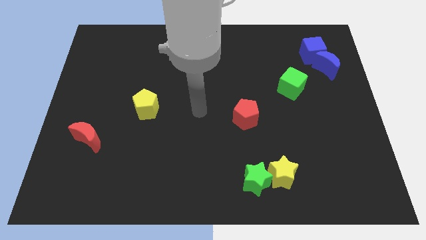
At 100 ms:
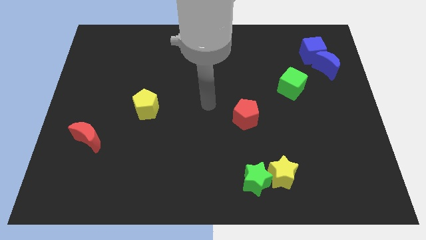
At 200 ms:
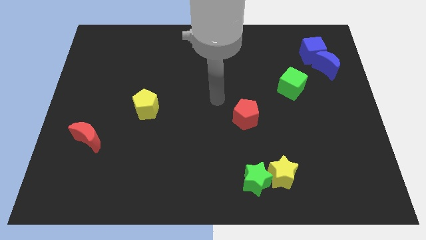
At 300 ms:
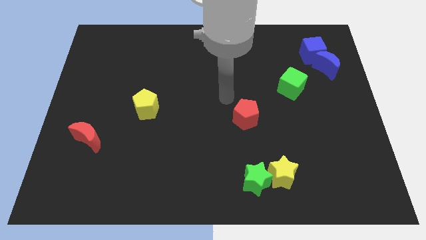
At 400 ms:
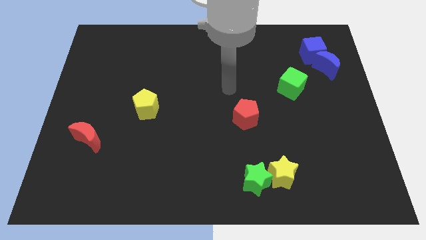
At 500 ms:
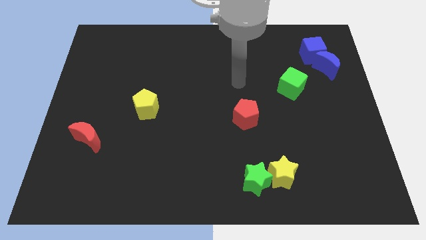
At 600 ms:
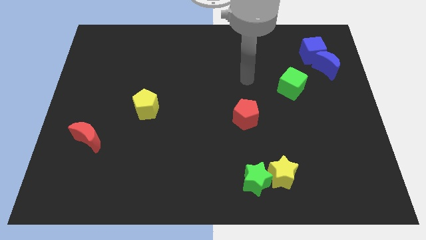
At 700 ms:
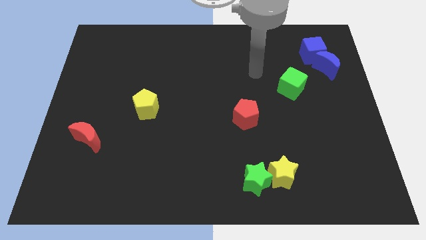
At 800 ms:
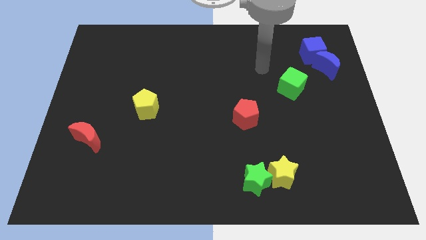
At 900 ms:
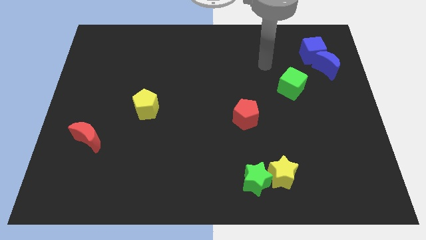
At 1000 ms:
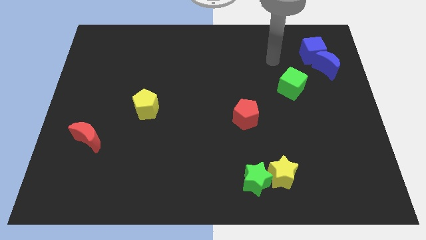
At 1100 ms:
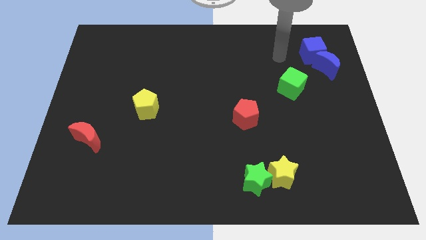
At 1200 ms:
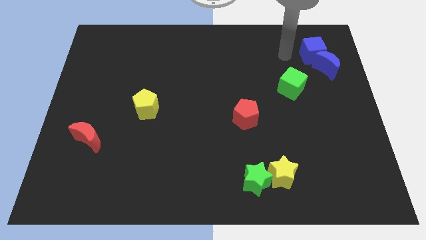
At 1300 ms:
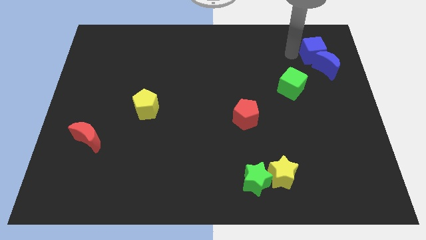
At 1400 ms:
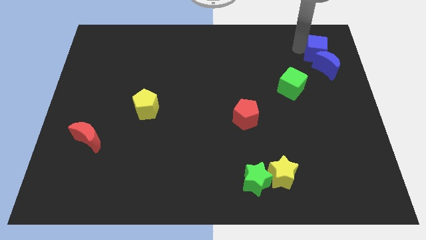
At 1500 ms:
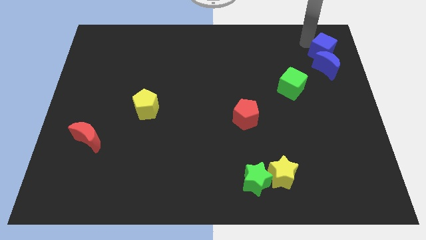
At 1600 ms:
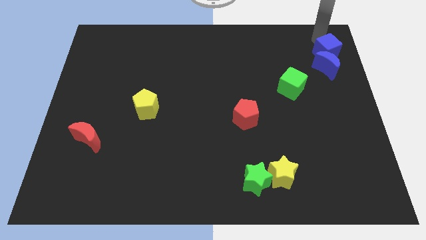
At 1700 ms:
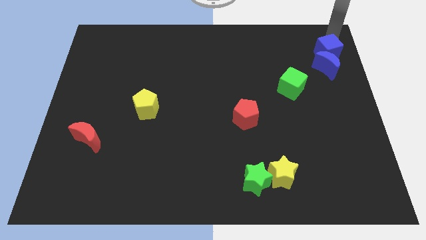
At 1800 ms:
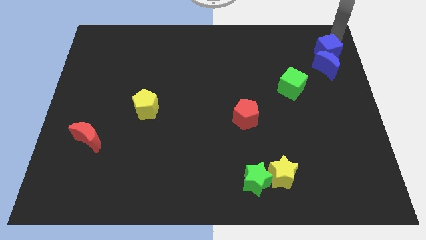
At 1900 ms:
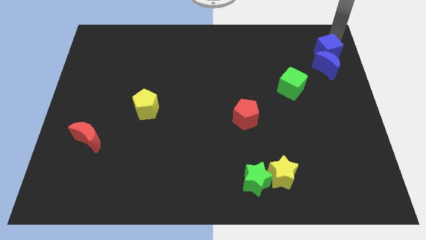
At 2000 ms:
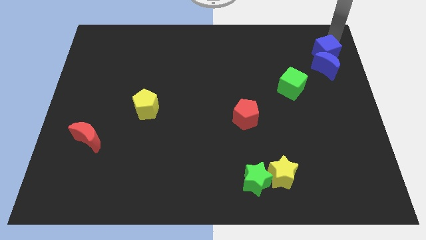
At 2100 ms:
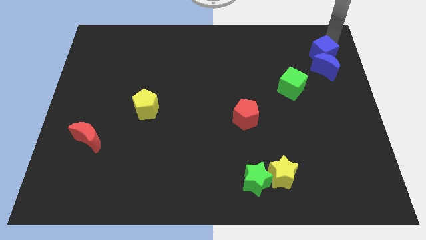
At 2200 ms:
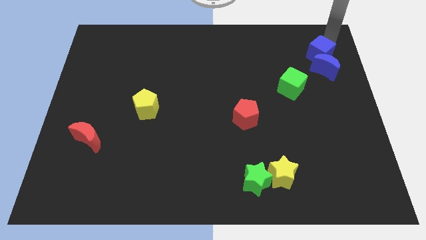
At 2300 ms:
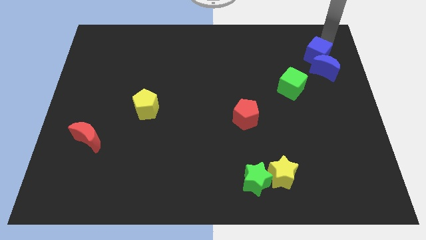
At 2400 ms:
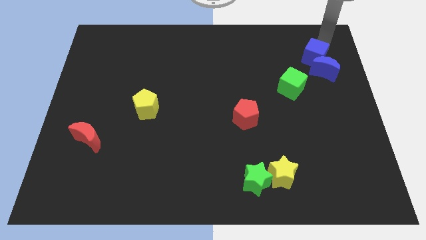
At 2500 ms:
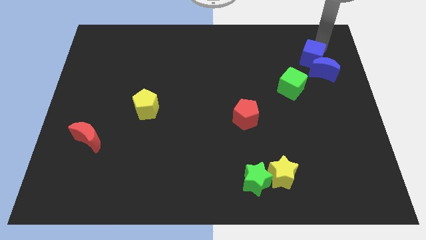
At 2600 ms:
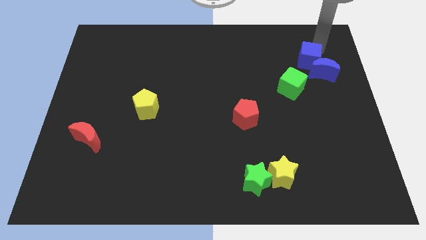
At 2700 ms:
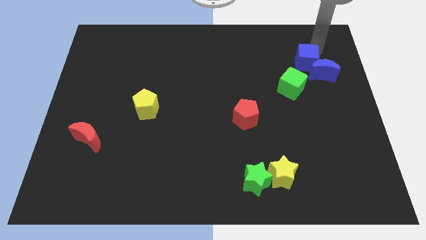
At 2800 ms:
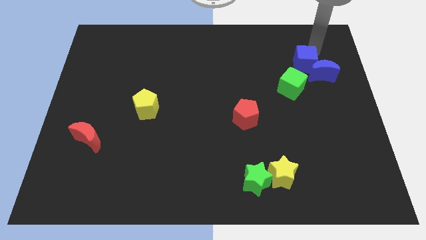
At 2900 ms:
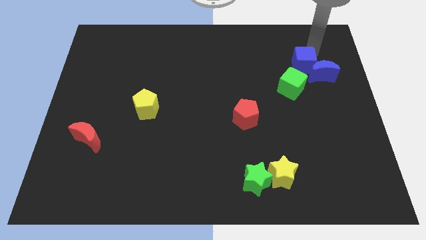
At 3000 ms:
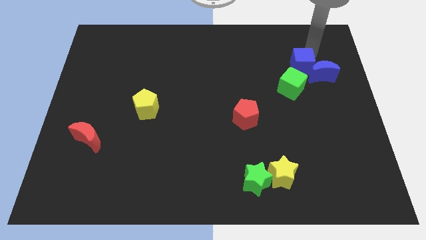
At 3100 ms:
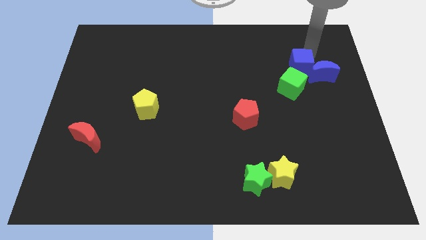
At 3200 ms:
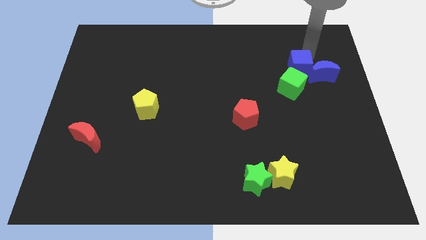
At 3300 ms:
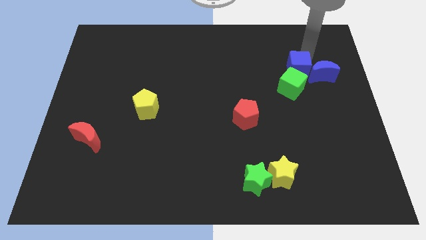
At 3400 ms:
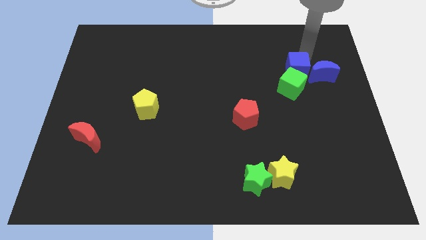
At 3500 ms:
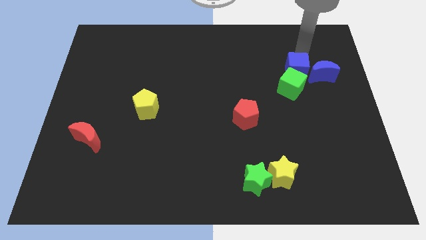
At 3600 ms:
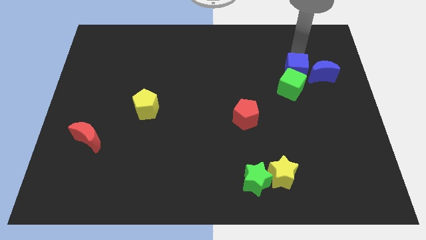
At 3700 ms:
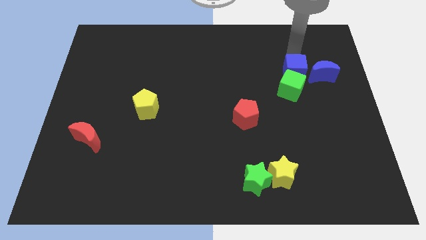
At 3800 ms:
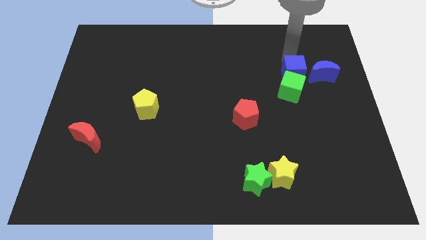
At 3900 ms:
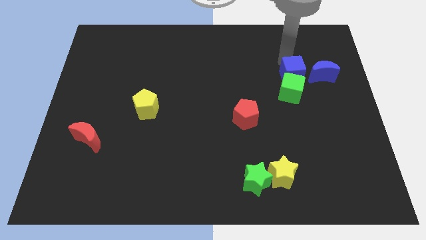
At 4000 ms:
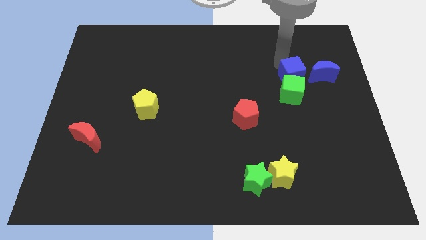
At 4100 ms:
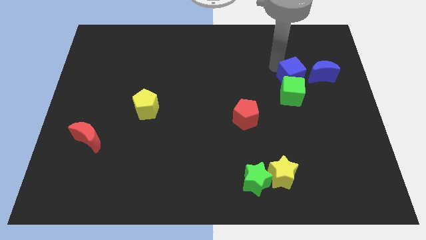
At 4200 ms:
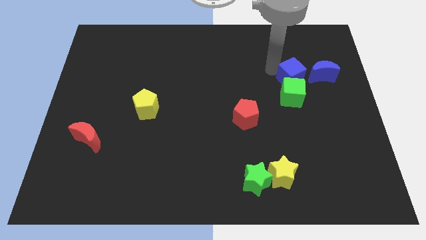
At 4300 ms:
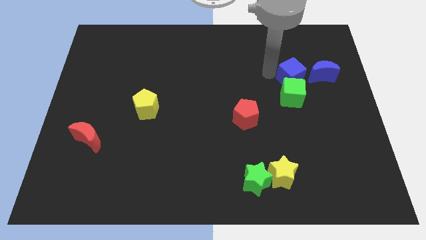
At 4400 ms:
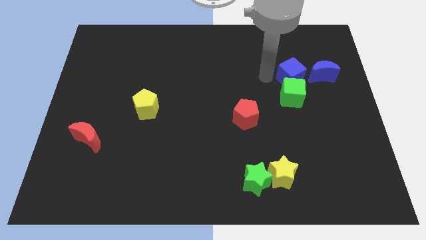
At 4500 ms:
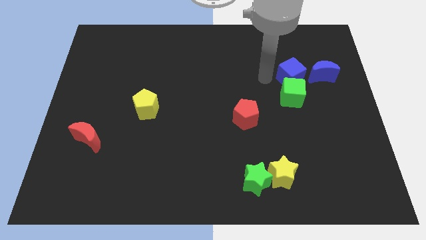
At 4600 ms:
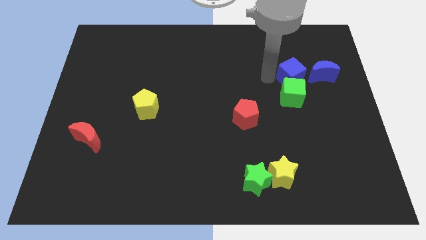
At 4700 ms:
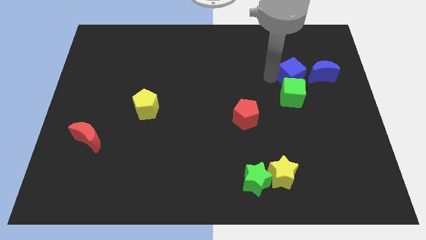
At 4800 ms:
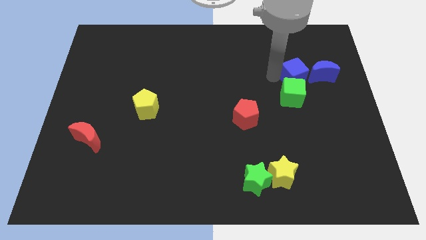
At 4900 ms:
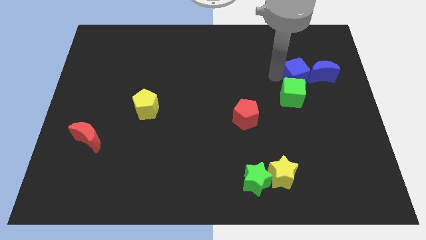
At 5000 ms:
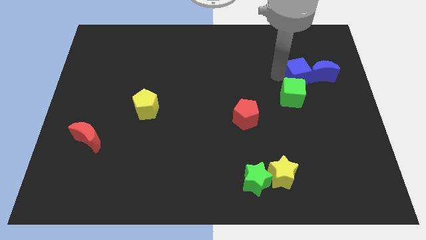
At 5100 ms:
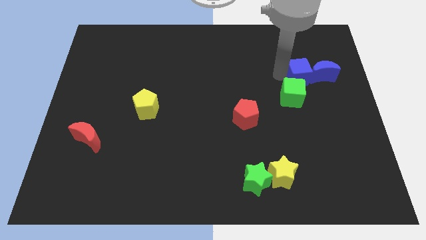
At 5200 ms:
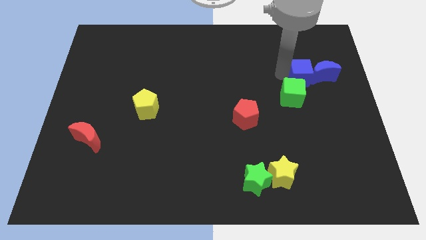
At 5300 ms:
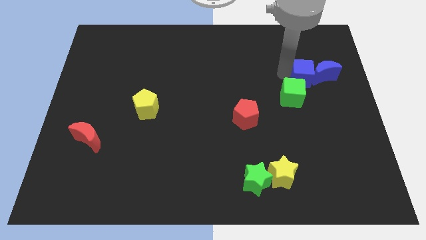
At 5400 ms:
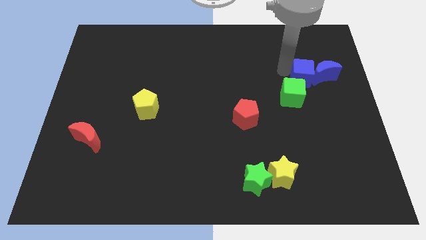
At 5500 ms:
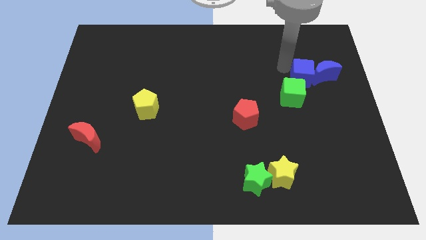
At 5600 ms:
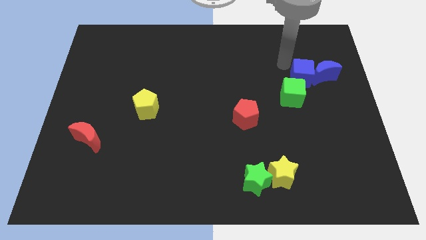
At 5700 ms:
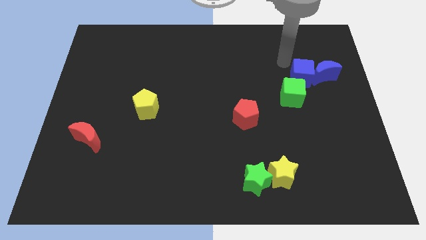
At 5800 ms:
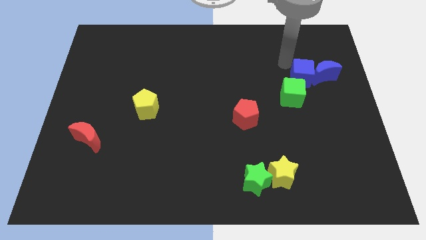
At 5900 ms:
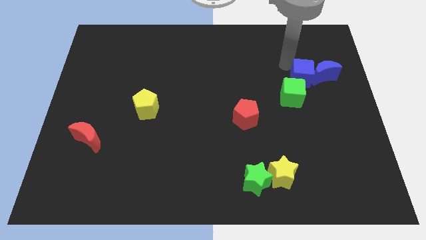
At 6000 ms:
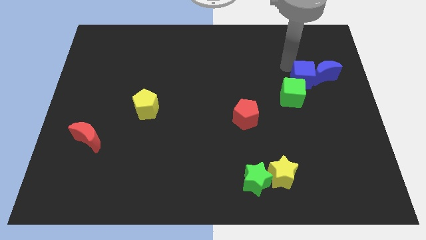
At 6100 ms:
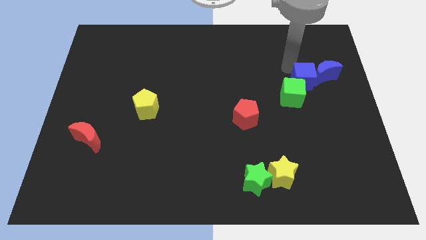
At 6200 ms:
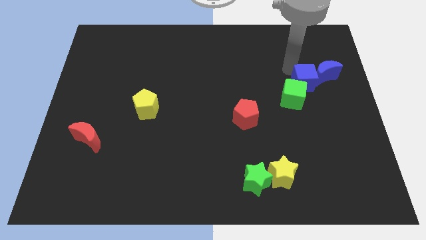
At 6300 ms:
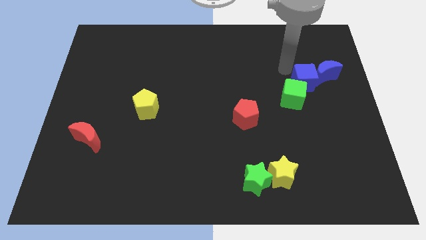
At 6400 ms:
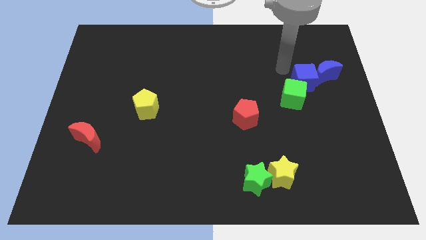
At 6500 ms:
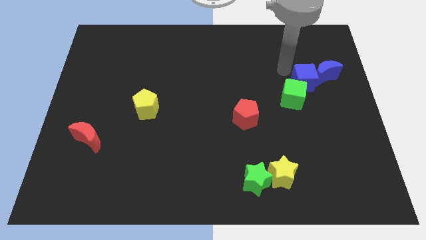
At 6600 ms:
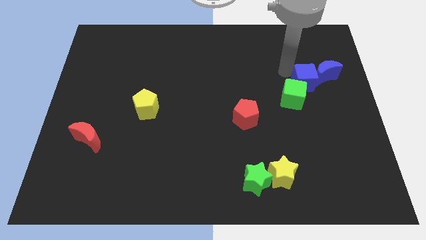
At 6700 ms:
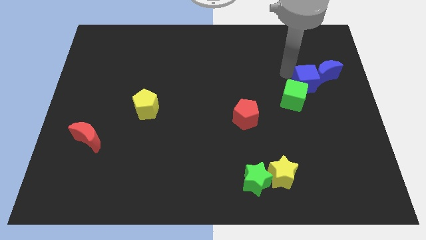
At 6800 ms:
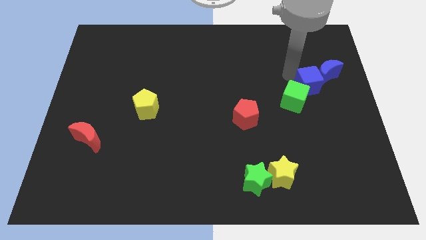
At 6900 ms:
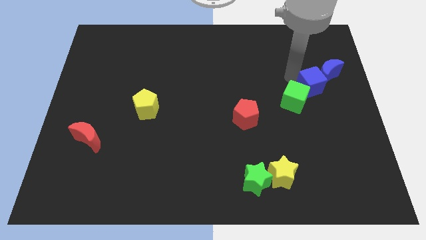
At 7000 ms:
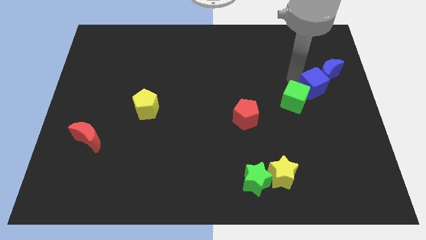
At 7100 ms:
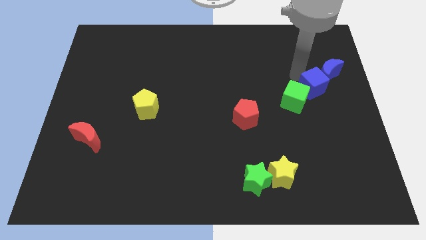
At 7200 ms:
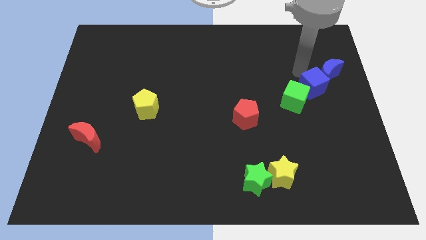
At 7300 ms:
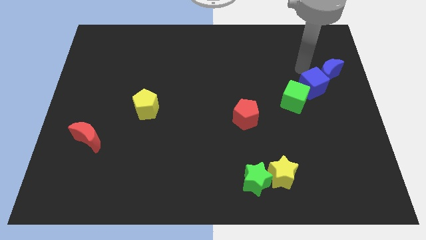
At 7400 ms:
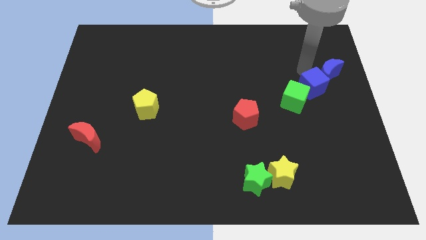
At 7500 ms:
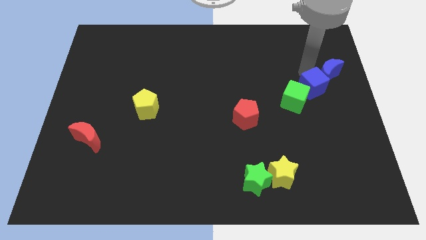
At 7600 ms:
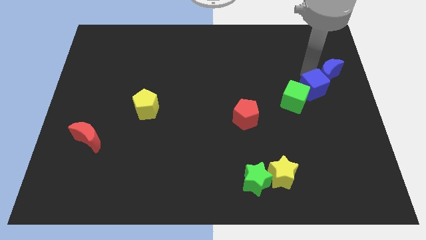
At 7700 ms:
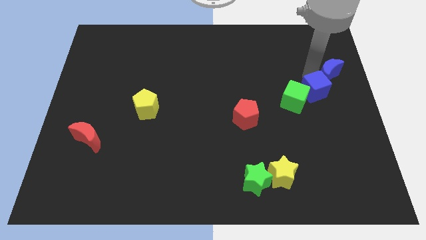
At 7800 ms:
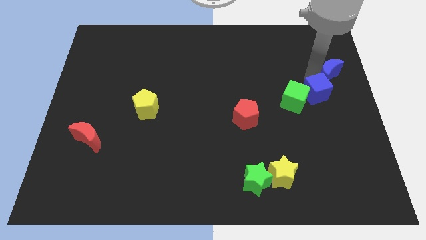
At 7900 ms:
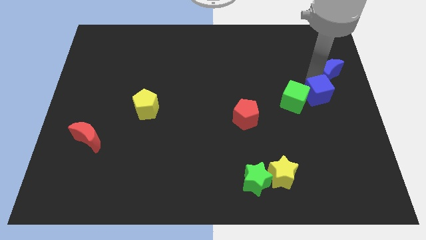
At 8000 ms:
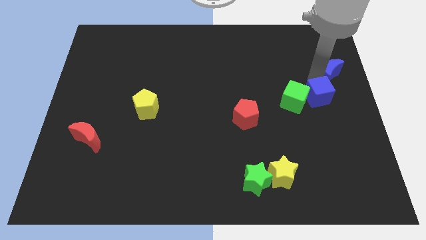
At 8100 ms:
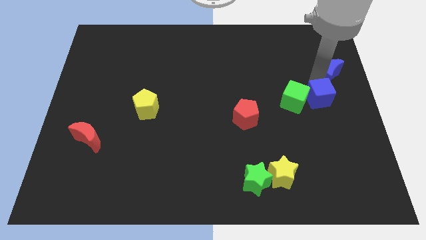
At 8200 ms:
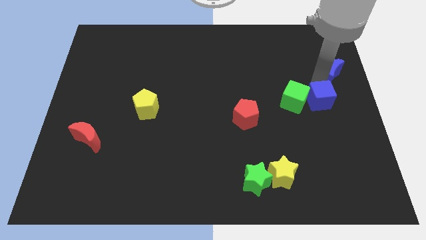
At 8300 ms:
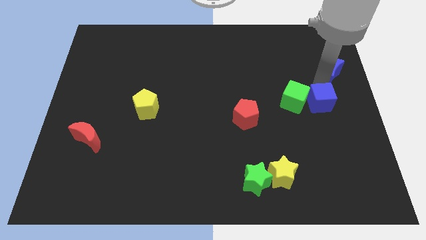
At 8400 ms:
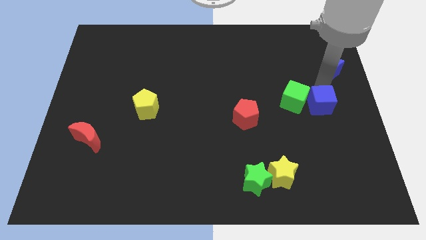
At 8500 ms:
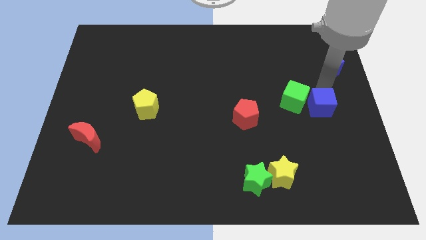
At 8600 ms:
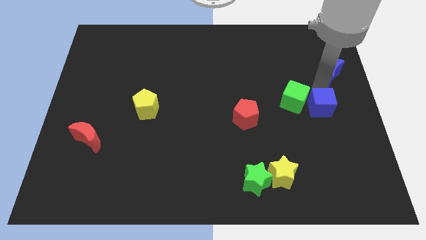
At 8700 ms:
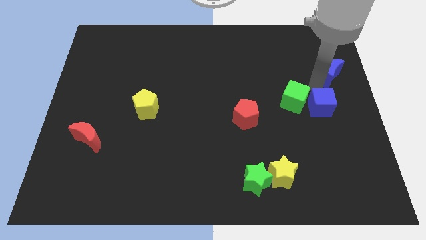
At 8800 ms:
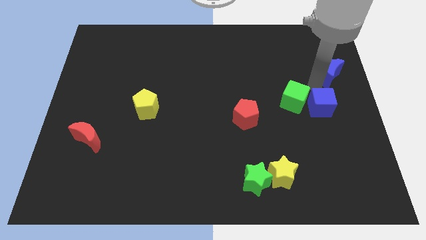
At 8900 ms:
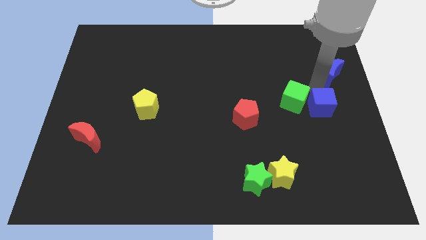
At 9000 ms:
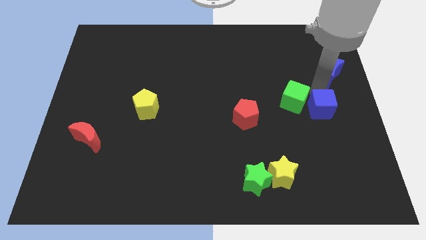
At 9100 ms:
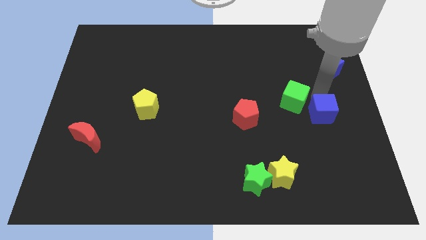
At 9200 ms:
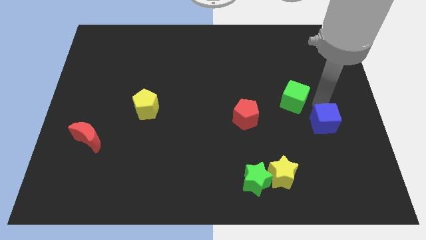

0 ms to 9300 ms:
move the blue cube downwards
